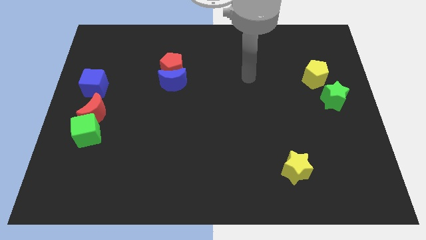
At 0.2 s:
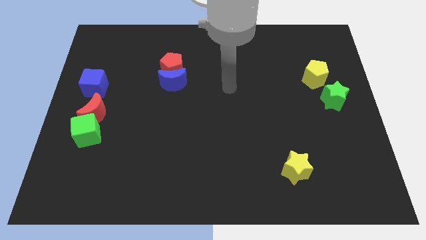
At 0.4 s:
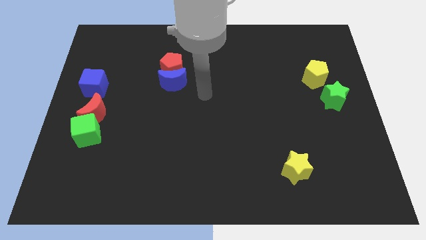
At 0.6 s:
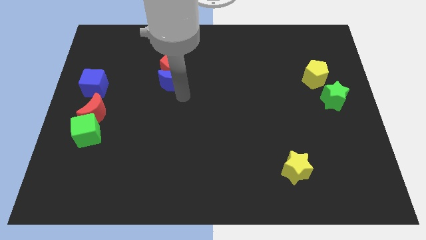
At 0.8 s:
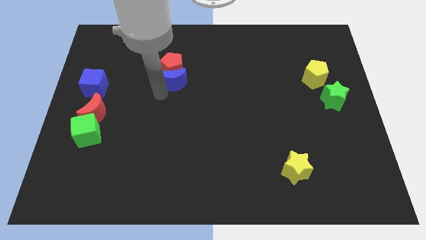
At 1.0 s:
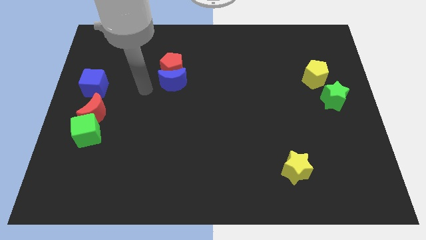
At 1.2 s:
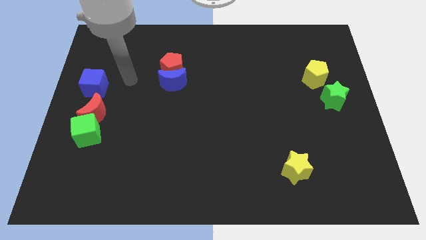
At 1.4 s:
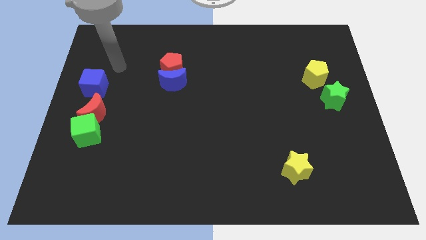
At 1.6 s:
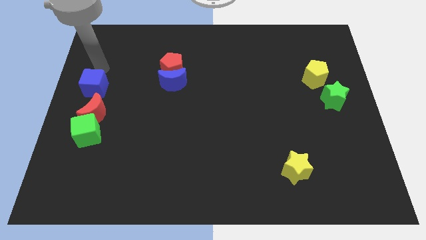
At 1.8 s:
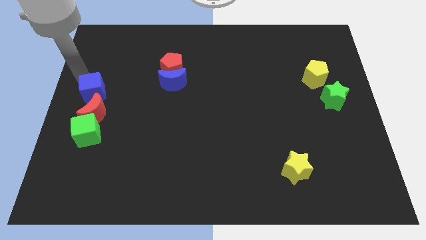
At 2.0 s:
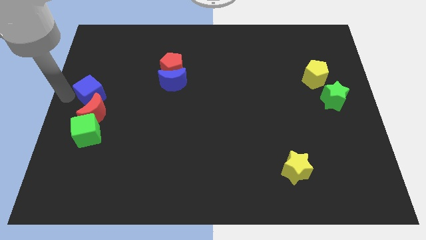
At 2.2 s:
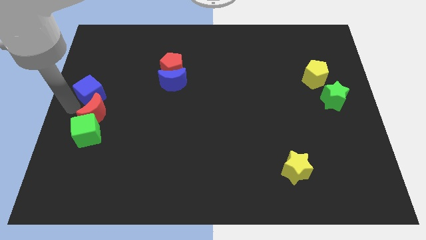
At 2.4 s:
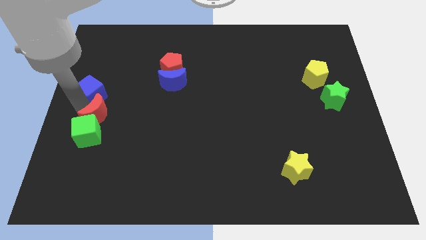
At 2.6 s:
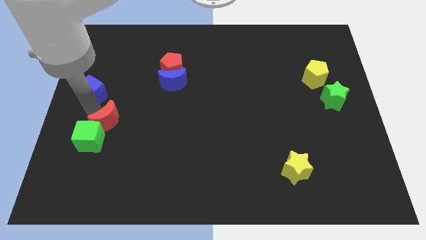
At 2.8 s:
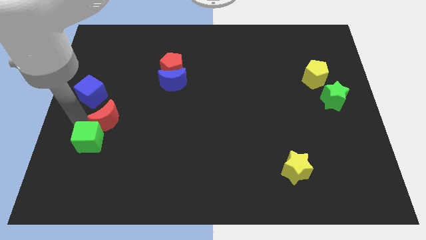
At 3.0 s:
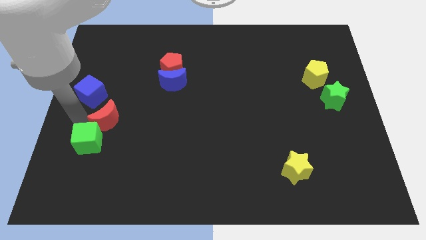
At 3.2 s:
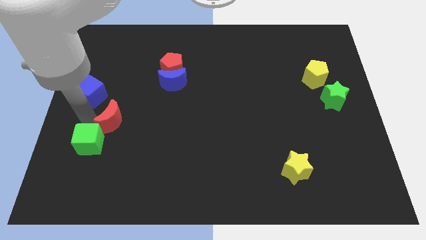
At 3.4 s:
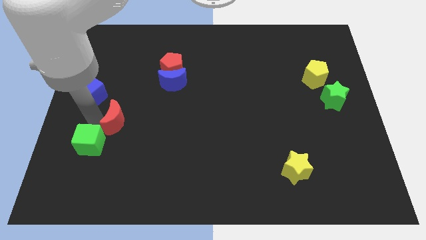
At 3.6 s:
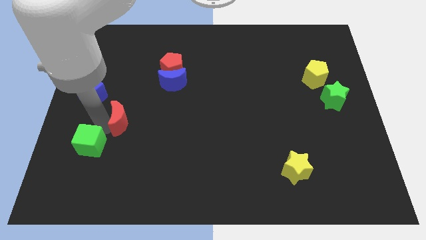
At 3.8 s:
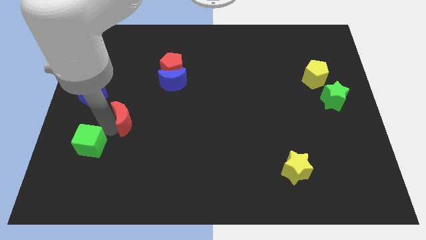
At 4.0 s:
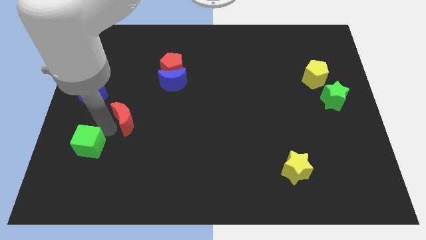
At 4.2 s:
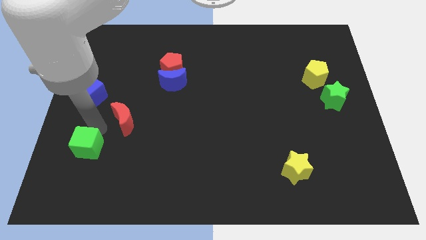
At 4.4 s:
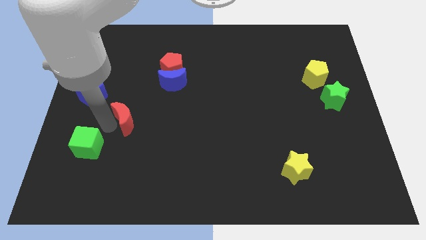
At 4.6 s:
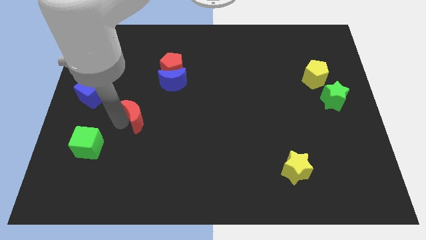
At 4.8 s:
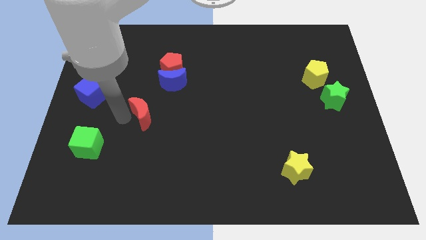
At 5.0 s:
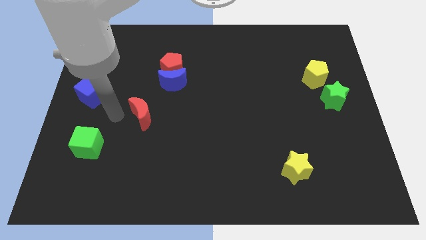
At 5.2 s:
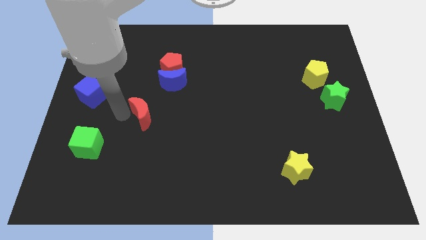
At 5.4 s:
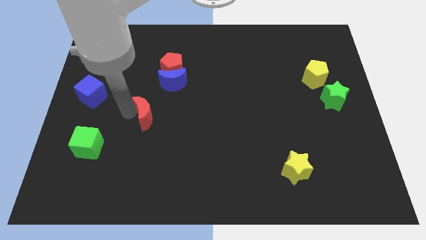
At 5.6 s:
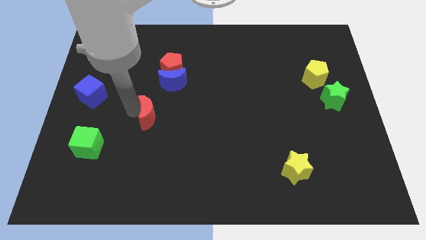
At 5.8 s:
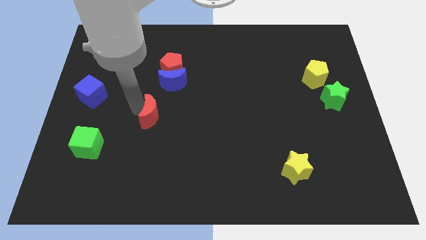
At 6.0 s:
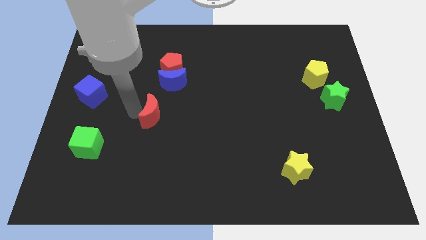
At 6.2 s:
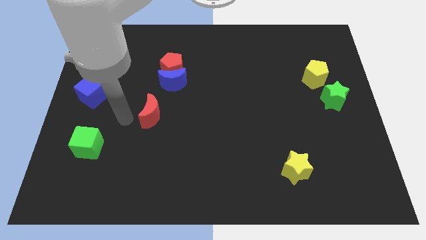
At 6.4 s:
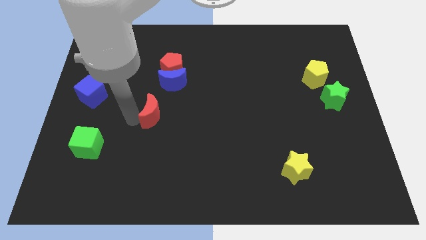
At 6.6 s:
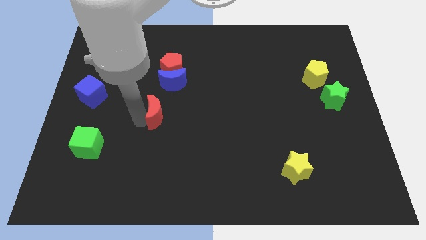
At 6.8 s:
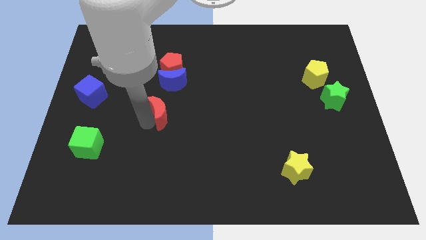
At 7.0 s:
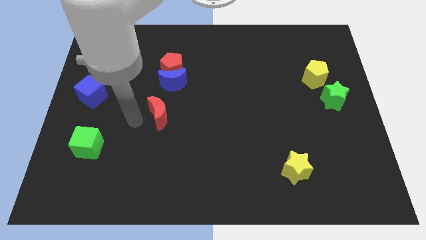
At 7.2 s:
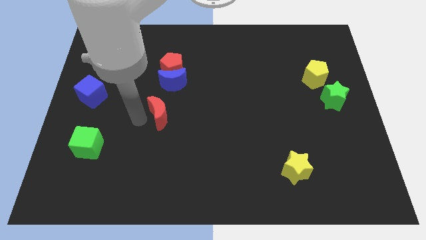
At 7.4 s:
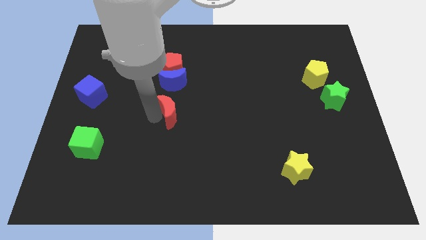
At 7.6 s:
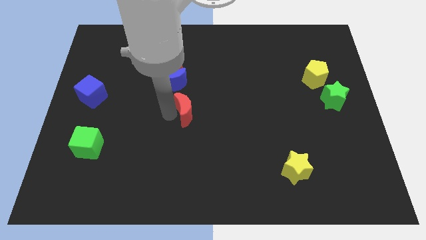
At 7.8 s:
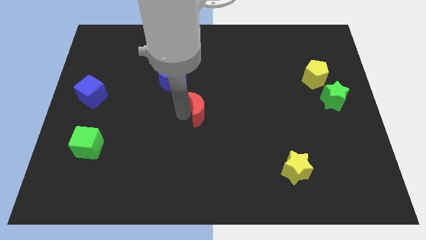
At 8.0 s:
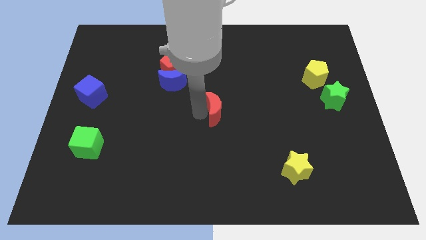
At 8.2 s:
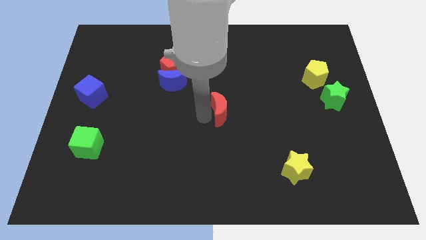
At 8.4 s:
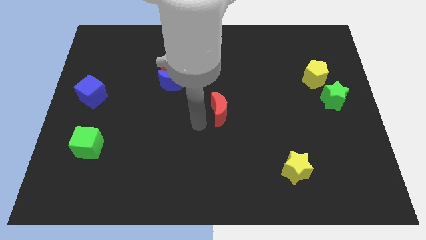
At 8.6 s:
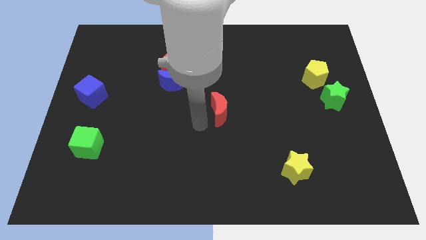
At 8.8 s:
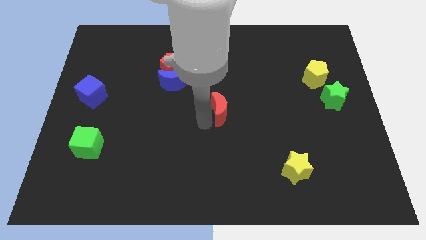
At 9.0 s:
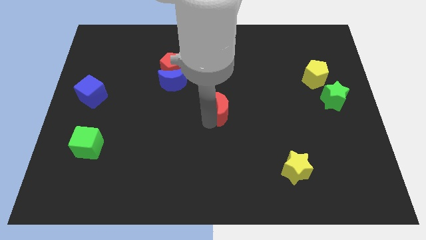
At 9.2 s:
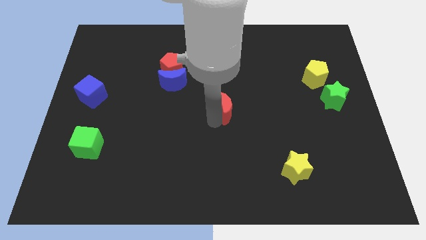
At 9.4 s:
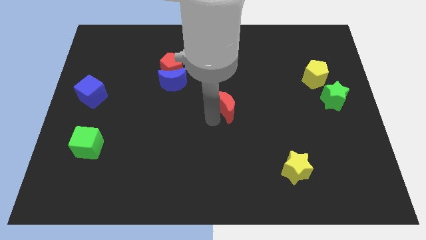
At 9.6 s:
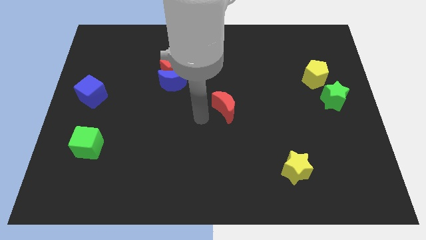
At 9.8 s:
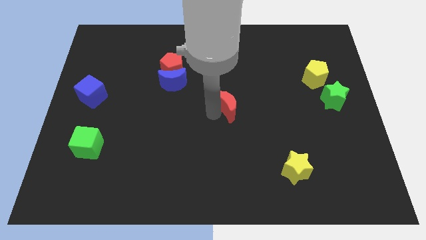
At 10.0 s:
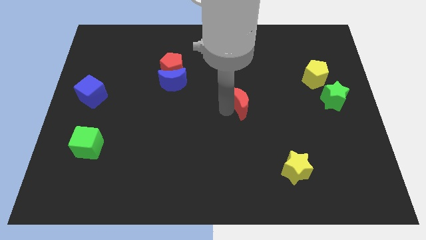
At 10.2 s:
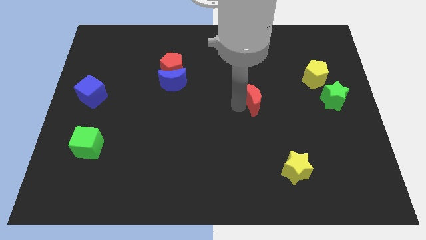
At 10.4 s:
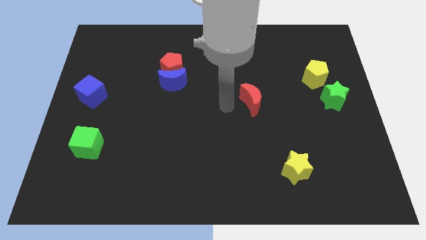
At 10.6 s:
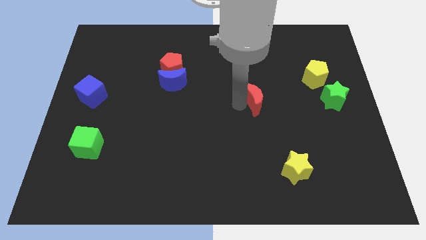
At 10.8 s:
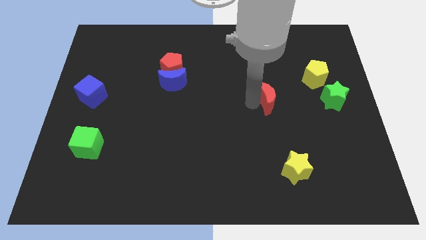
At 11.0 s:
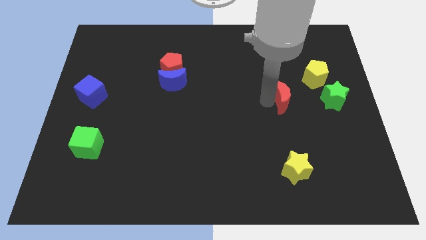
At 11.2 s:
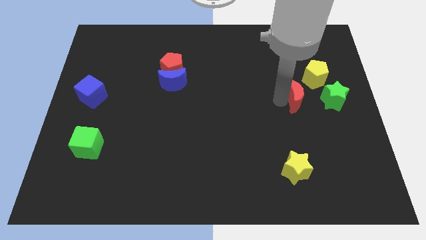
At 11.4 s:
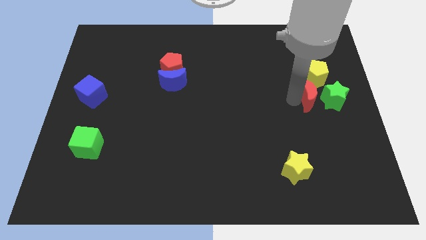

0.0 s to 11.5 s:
slide the red moon close to the green star

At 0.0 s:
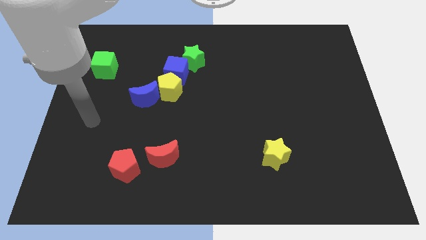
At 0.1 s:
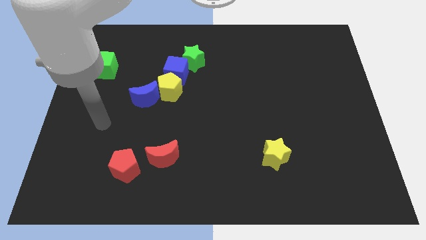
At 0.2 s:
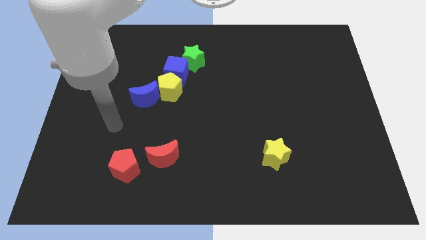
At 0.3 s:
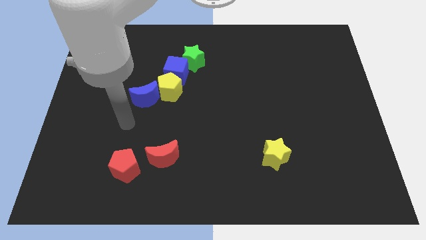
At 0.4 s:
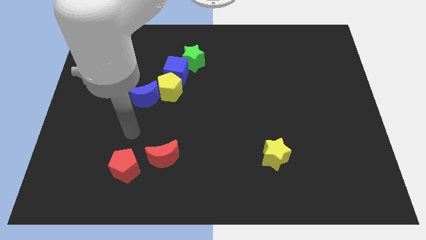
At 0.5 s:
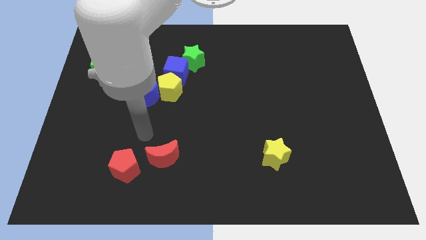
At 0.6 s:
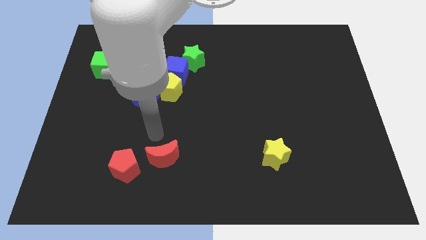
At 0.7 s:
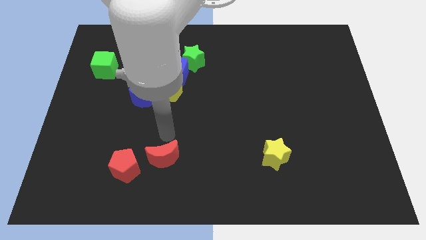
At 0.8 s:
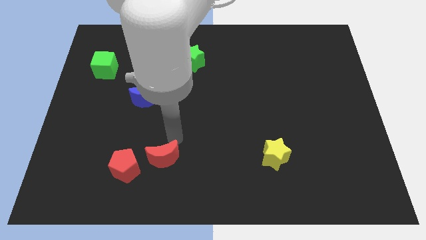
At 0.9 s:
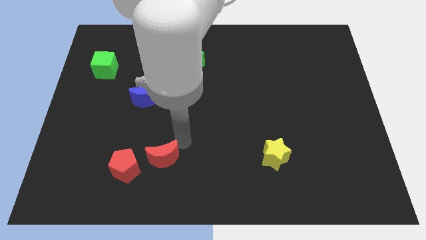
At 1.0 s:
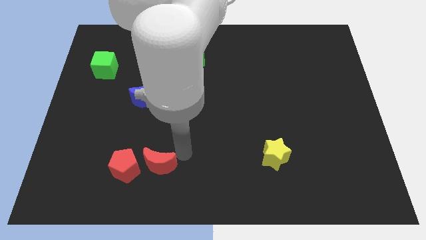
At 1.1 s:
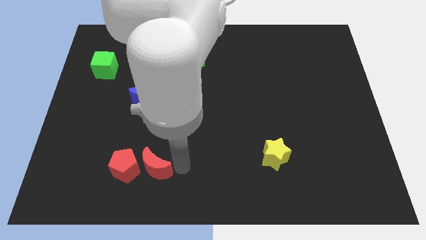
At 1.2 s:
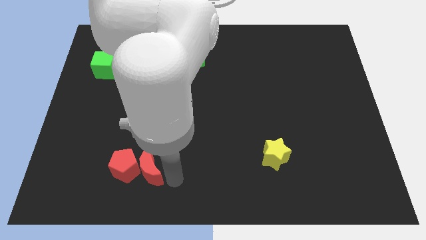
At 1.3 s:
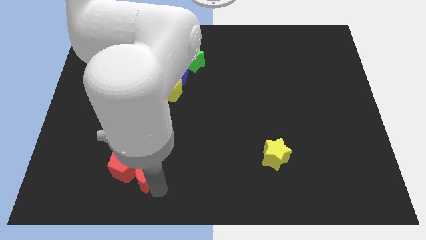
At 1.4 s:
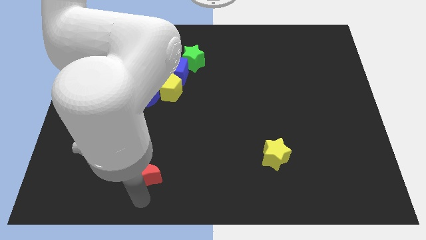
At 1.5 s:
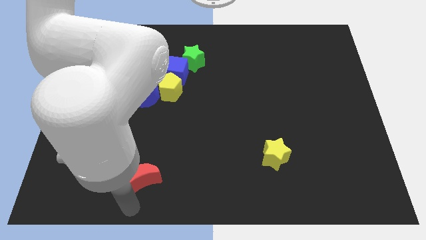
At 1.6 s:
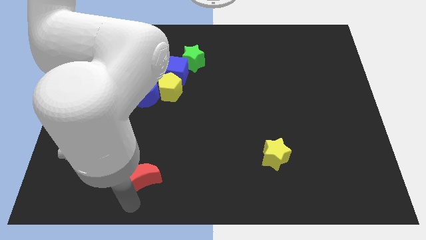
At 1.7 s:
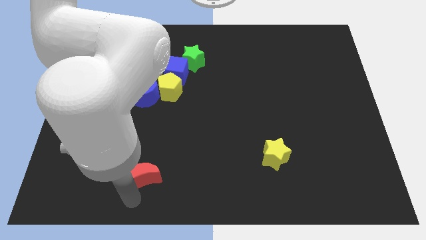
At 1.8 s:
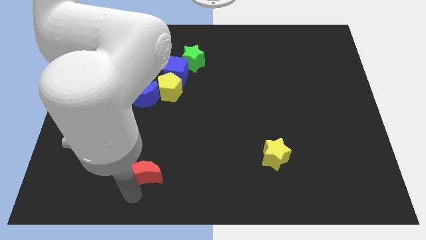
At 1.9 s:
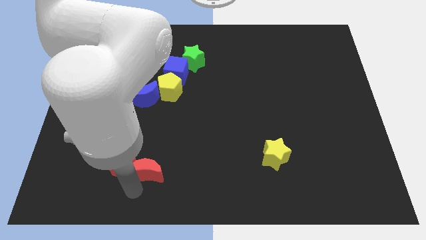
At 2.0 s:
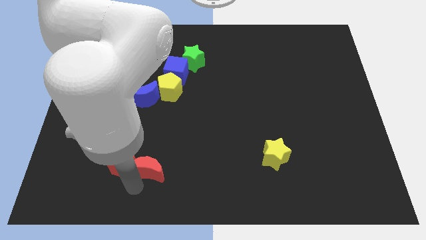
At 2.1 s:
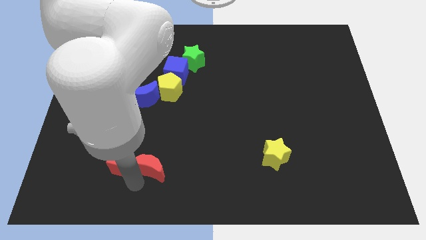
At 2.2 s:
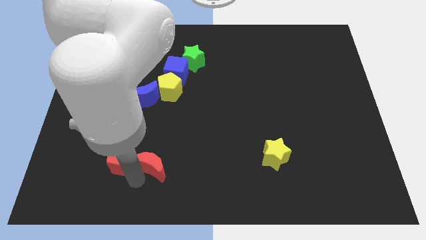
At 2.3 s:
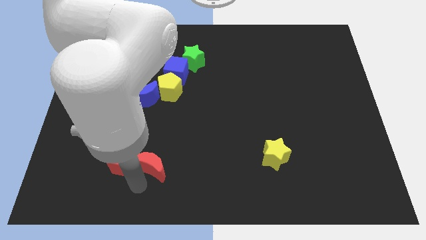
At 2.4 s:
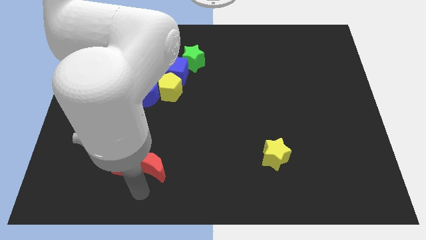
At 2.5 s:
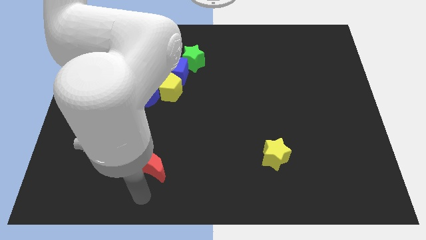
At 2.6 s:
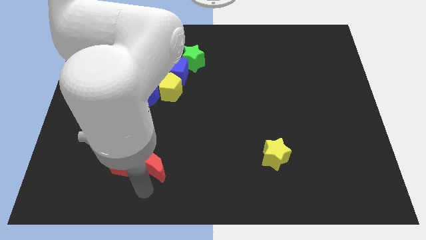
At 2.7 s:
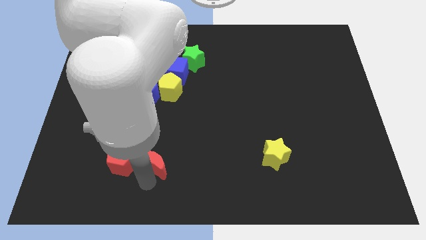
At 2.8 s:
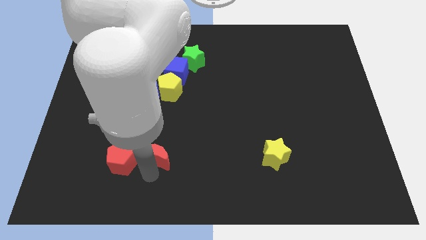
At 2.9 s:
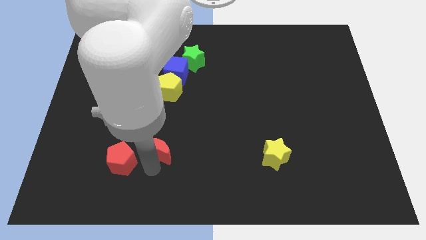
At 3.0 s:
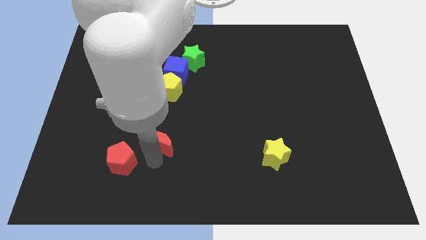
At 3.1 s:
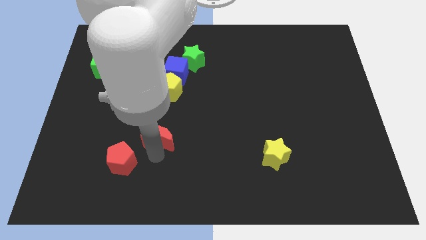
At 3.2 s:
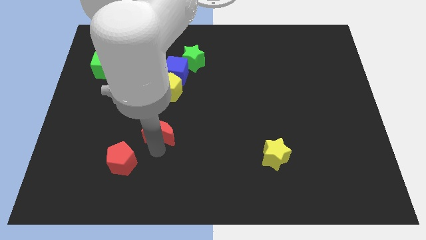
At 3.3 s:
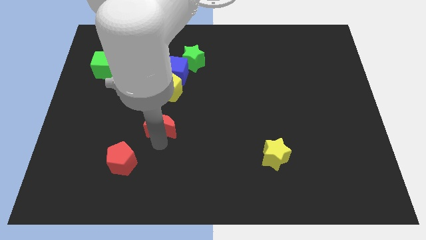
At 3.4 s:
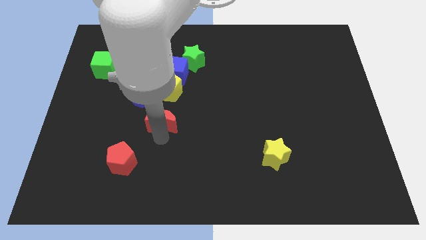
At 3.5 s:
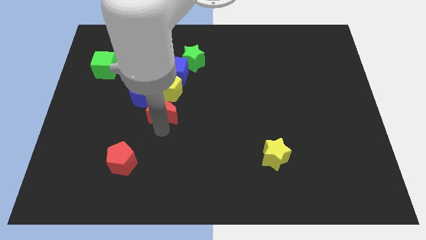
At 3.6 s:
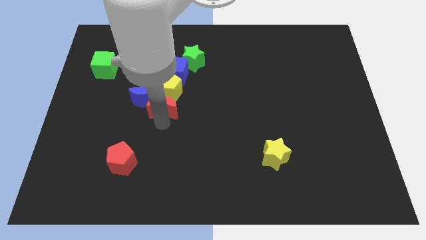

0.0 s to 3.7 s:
push the red moon to the yellow pentagon
